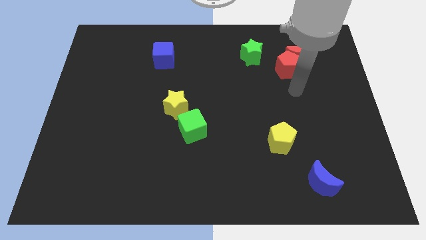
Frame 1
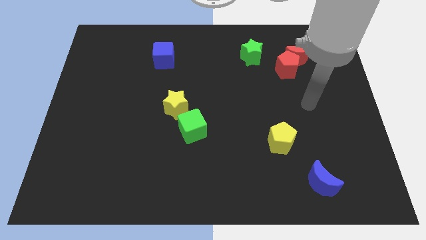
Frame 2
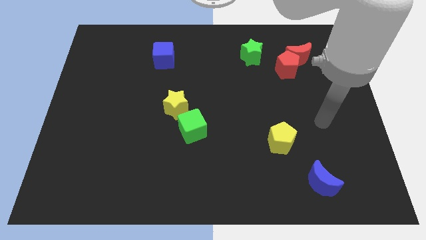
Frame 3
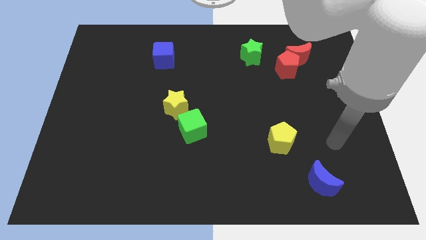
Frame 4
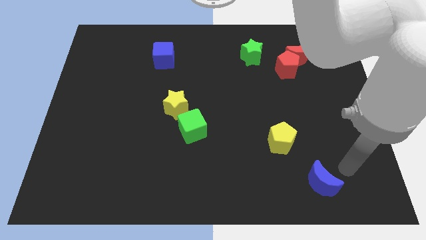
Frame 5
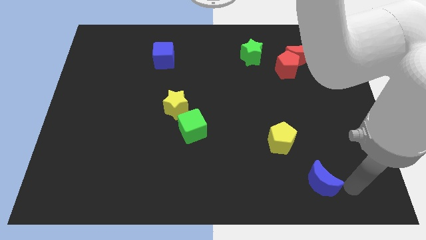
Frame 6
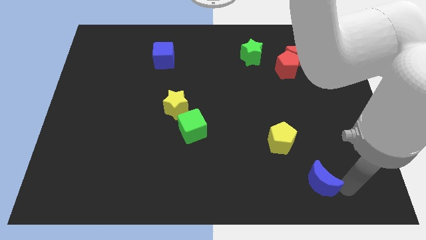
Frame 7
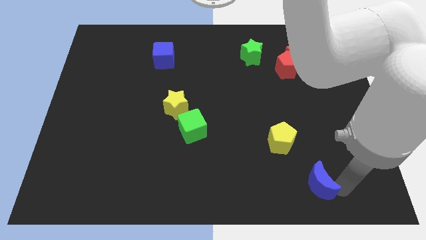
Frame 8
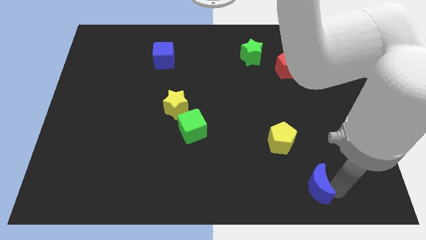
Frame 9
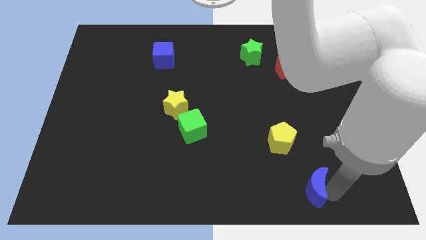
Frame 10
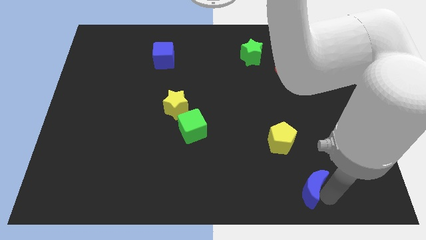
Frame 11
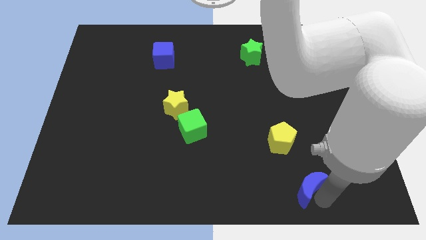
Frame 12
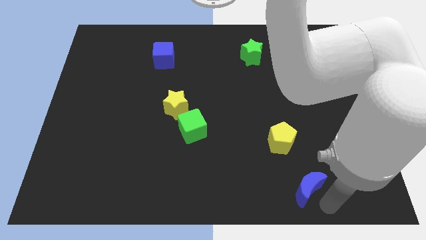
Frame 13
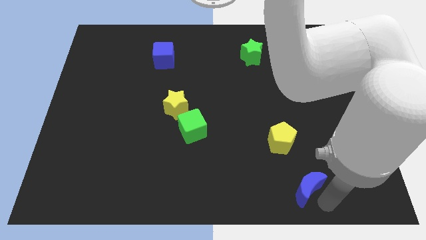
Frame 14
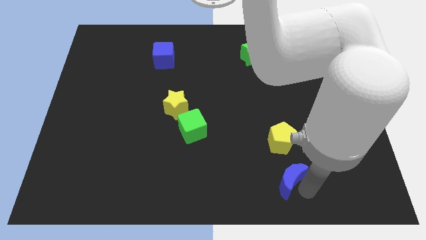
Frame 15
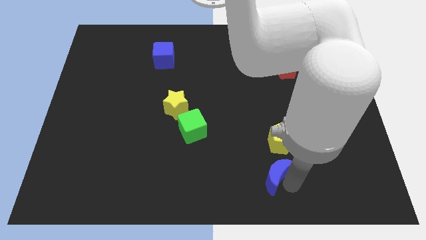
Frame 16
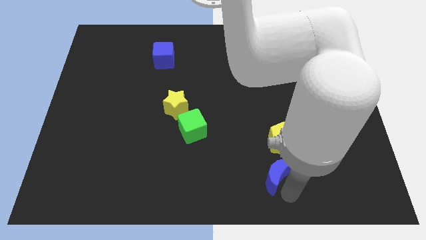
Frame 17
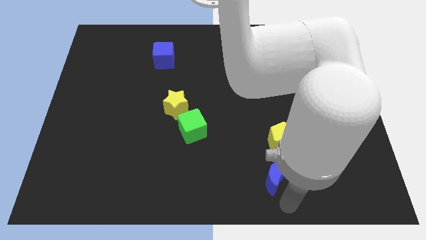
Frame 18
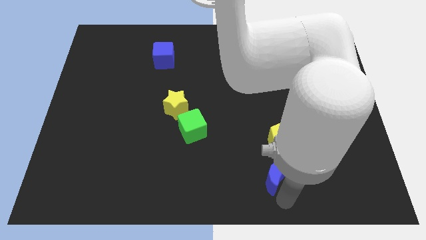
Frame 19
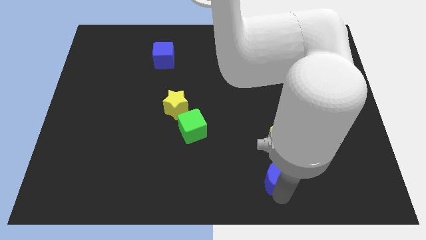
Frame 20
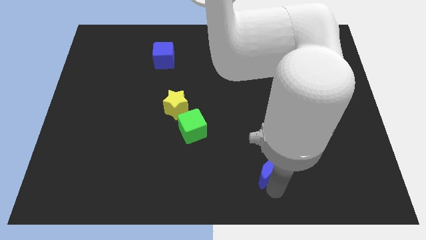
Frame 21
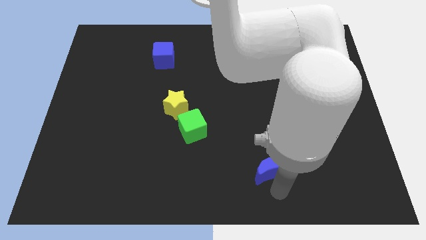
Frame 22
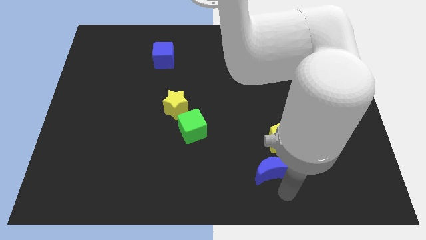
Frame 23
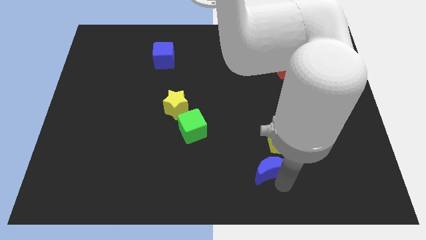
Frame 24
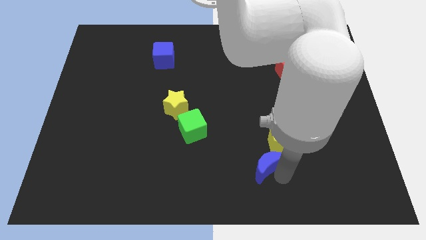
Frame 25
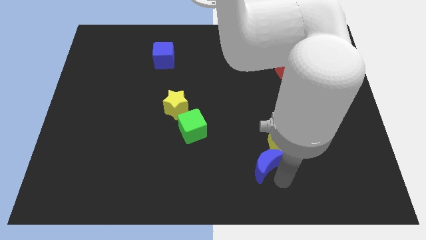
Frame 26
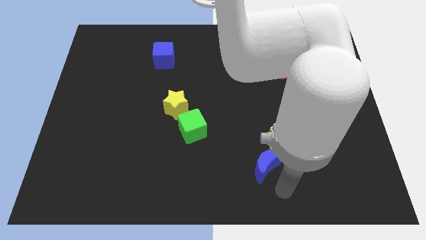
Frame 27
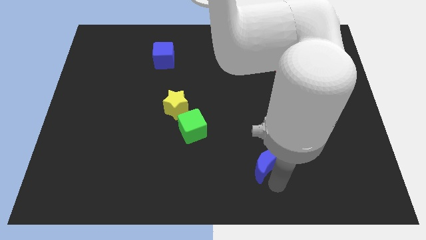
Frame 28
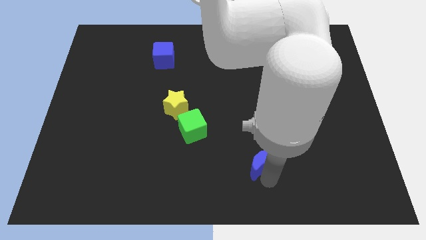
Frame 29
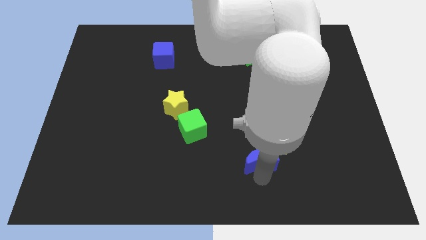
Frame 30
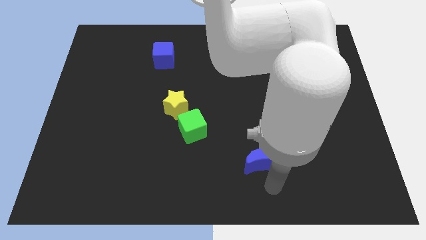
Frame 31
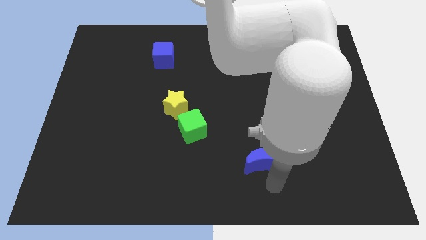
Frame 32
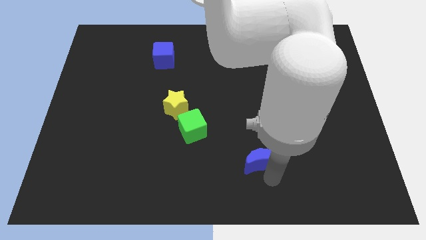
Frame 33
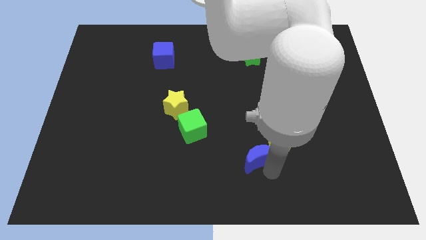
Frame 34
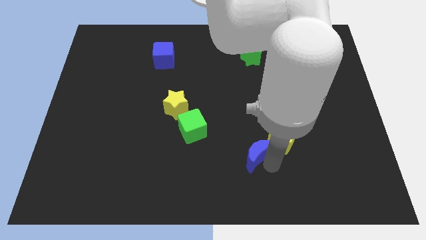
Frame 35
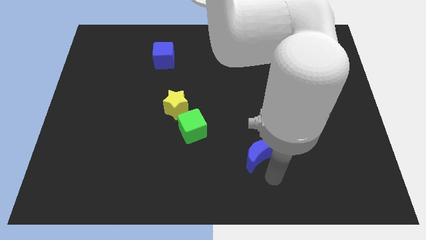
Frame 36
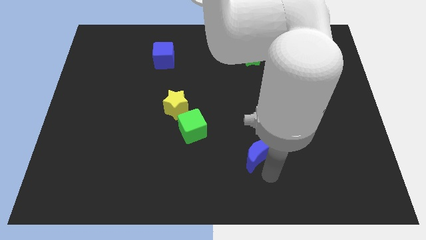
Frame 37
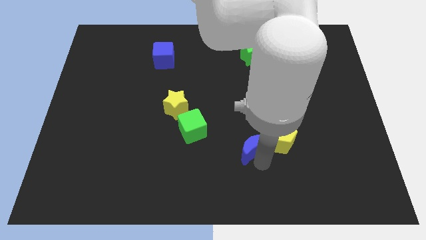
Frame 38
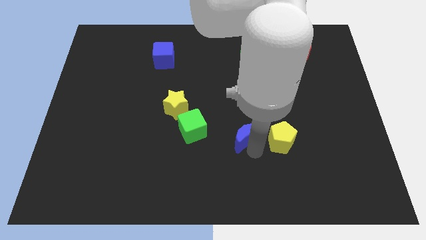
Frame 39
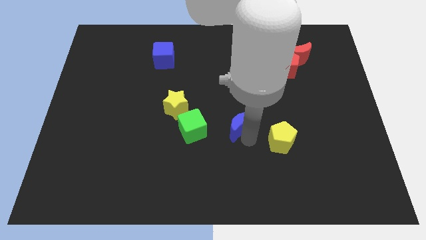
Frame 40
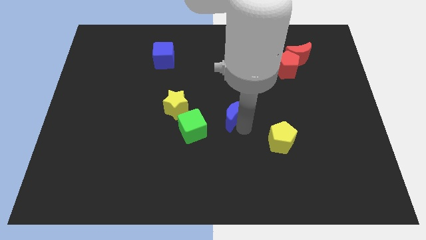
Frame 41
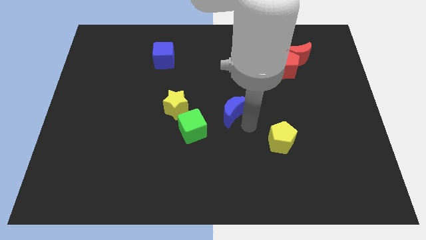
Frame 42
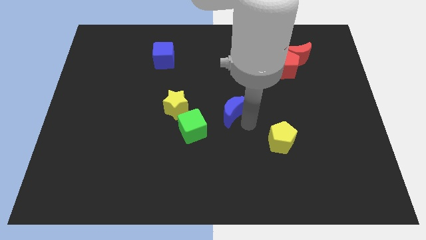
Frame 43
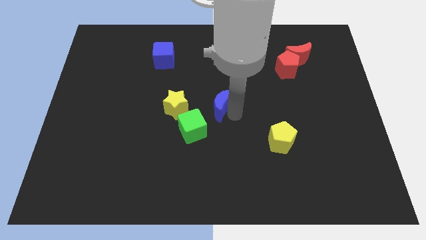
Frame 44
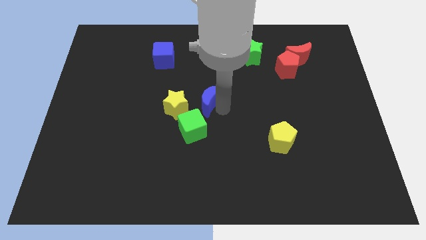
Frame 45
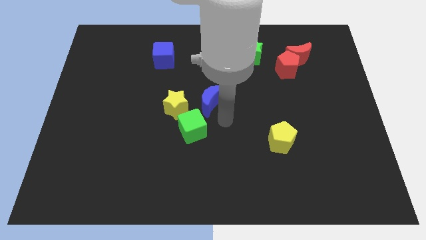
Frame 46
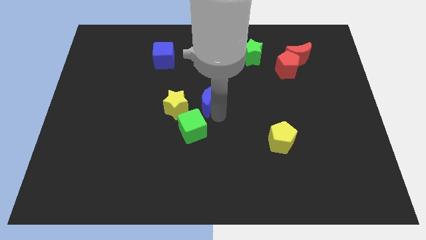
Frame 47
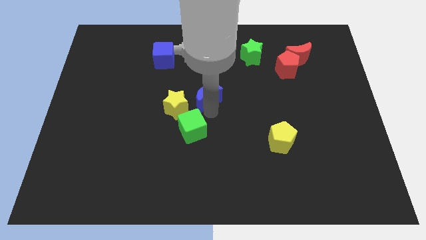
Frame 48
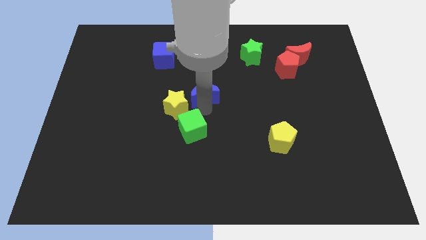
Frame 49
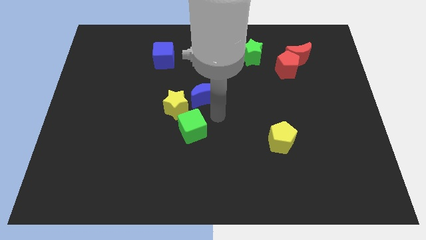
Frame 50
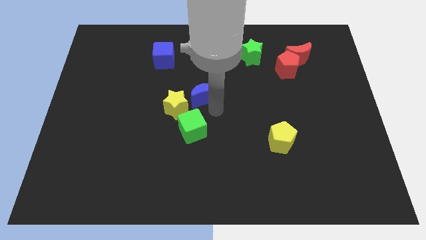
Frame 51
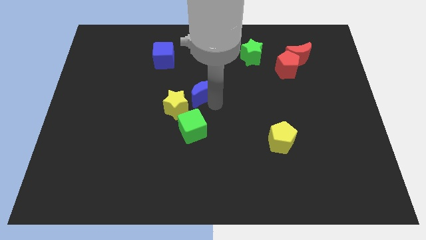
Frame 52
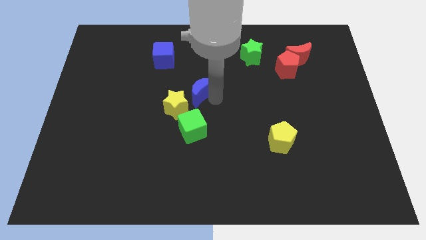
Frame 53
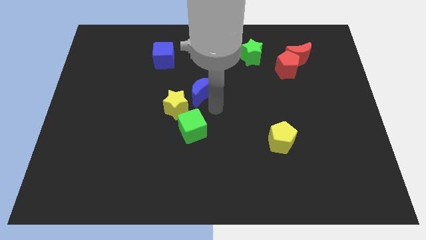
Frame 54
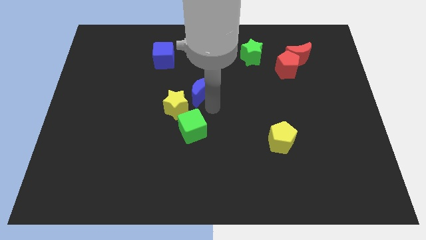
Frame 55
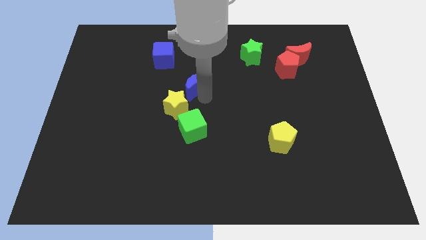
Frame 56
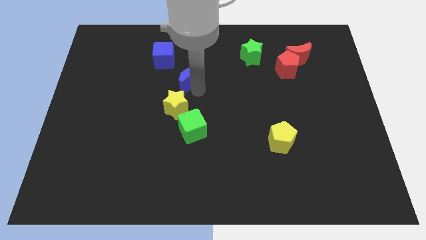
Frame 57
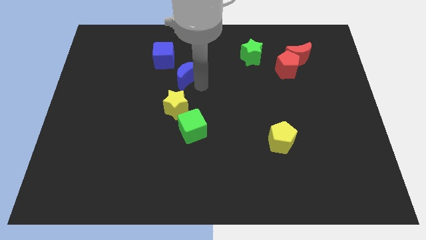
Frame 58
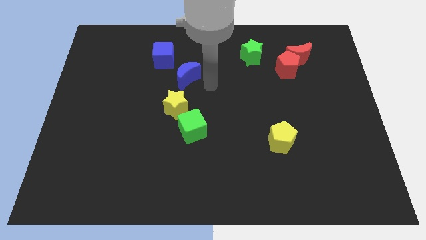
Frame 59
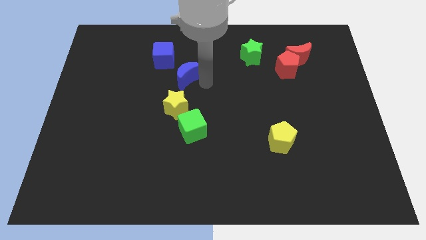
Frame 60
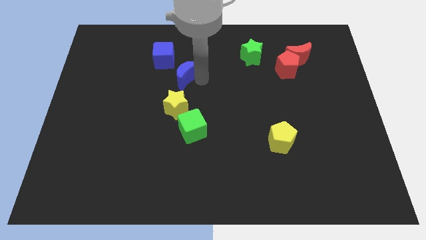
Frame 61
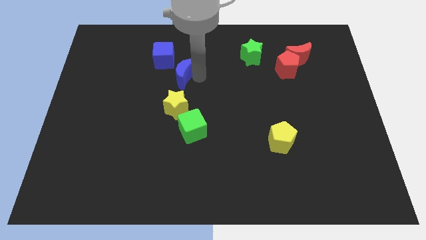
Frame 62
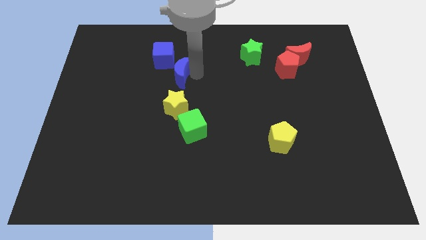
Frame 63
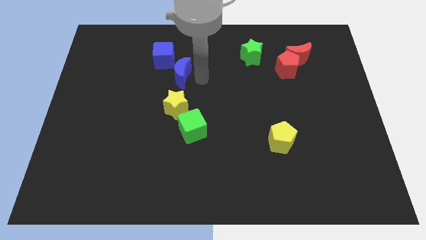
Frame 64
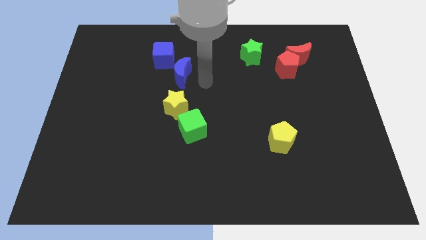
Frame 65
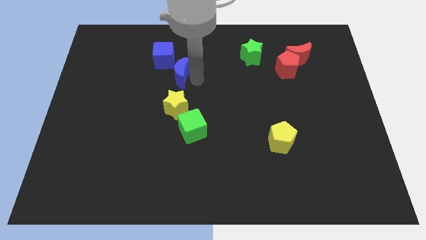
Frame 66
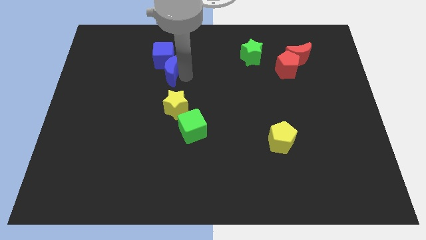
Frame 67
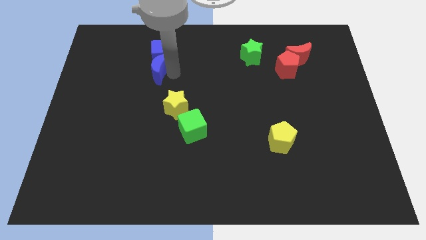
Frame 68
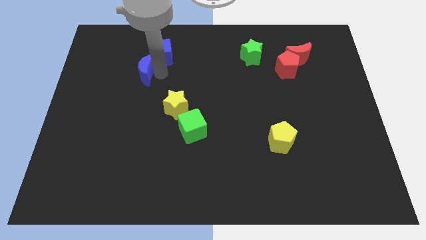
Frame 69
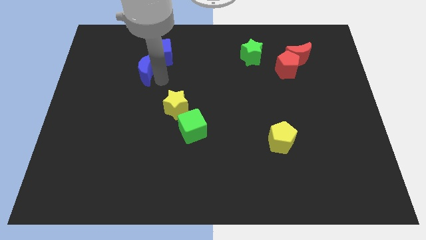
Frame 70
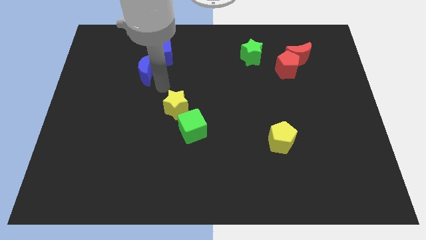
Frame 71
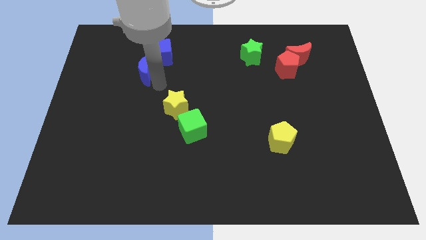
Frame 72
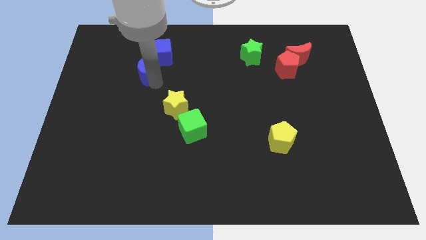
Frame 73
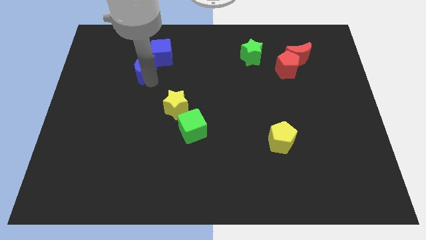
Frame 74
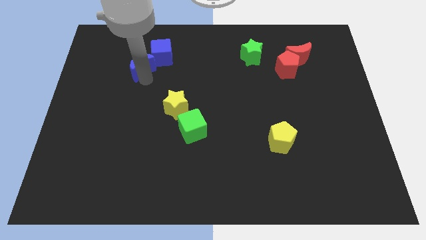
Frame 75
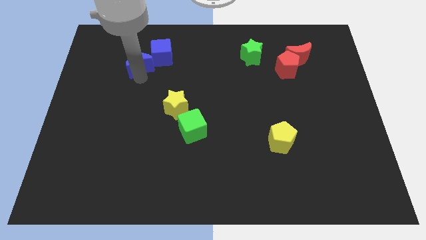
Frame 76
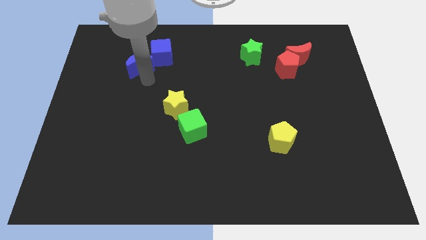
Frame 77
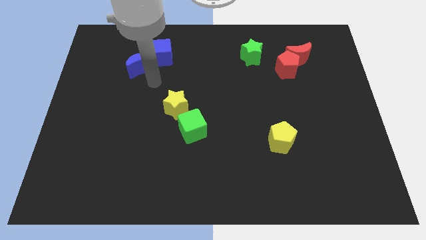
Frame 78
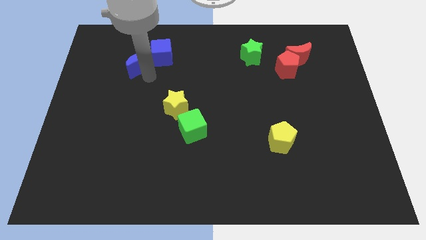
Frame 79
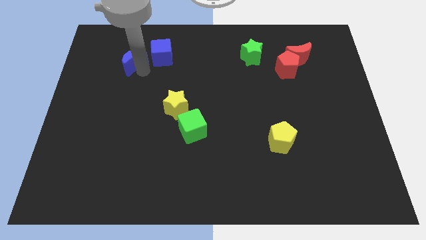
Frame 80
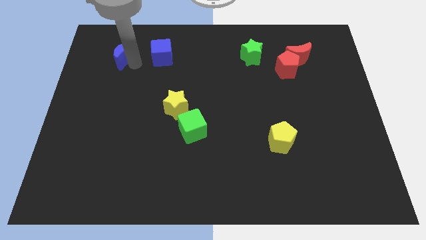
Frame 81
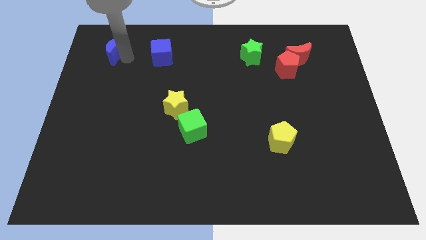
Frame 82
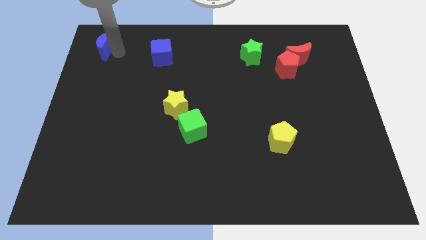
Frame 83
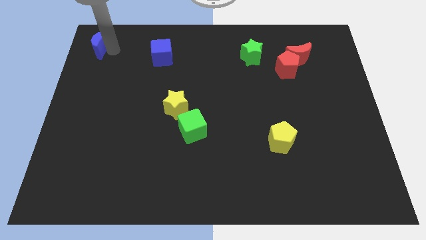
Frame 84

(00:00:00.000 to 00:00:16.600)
push the blue moon to the upper left corner
